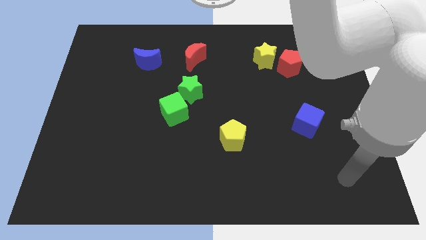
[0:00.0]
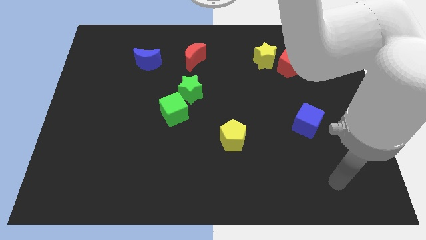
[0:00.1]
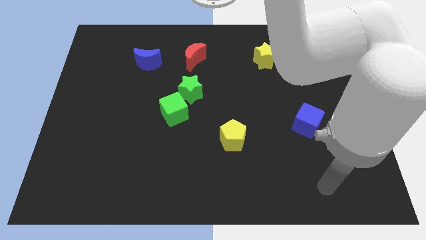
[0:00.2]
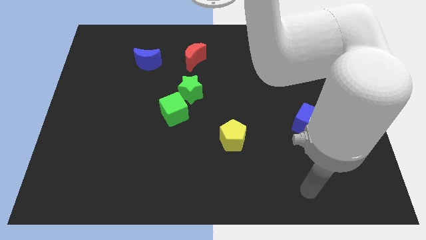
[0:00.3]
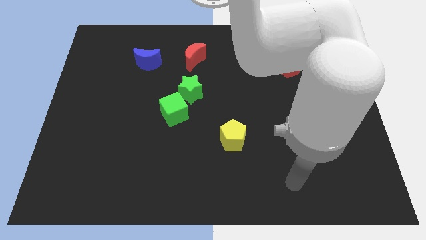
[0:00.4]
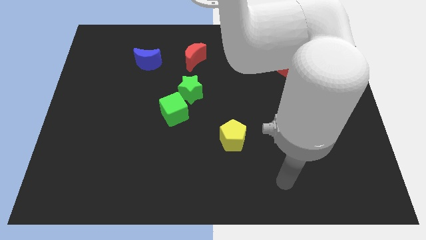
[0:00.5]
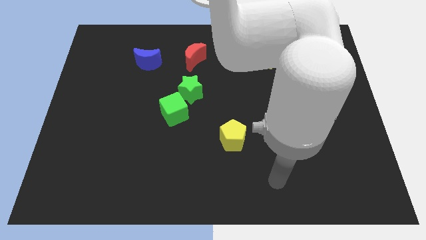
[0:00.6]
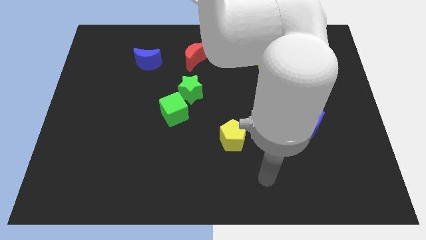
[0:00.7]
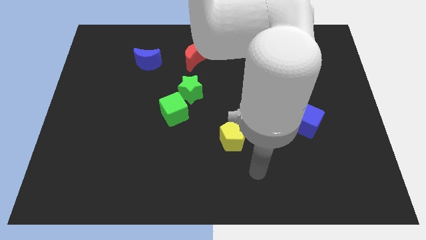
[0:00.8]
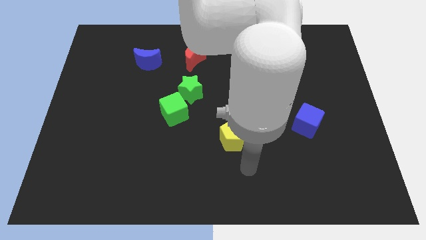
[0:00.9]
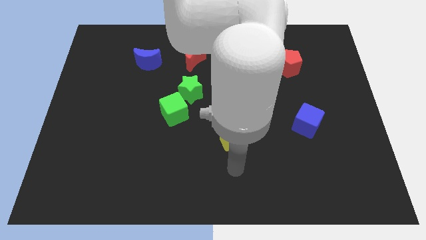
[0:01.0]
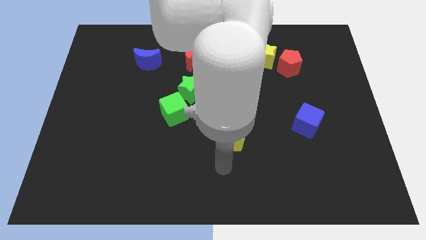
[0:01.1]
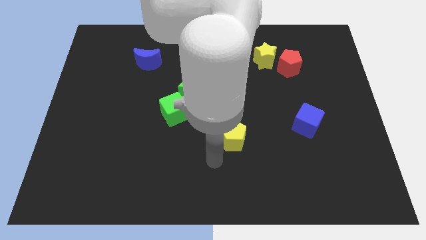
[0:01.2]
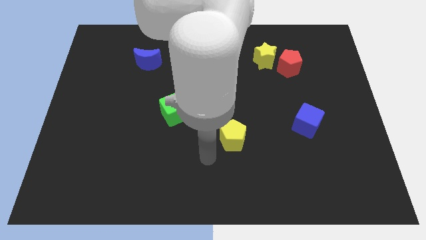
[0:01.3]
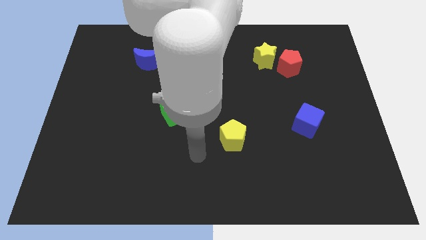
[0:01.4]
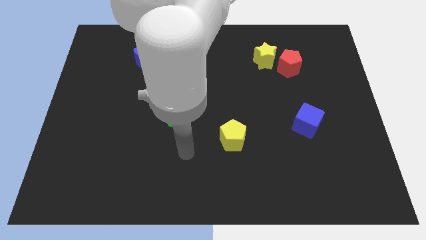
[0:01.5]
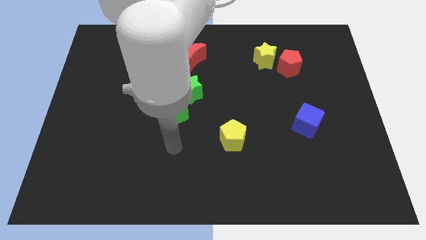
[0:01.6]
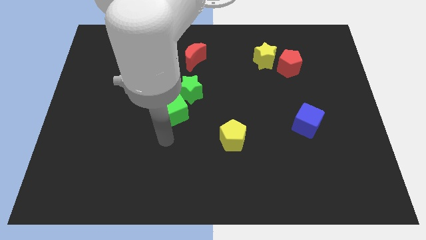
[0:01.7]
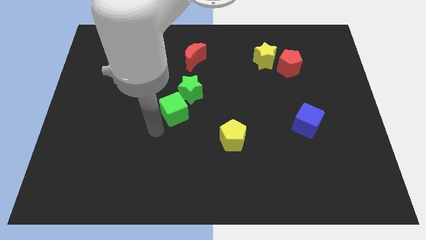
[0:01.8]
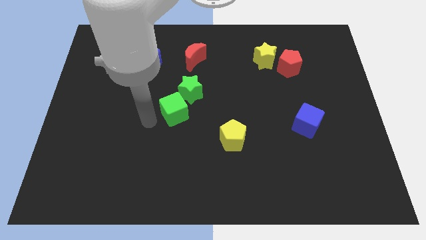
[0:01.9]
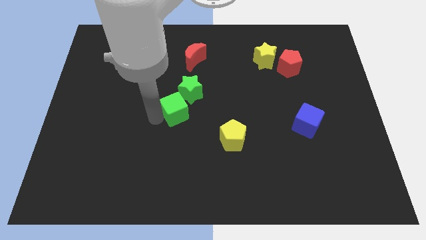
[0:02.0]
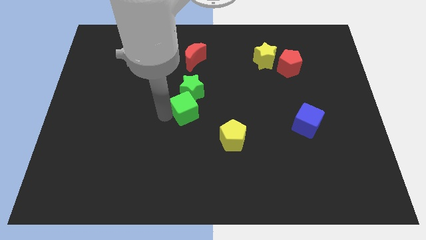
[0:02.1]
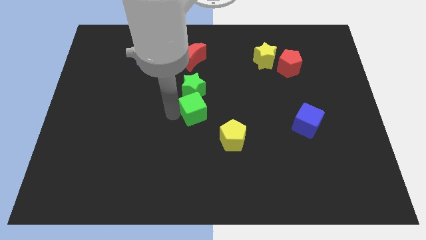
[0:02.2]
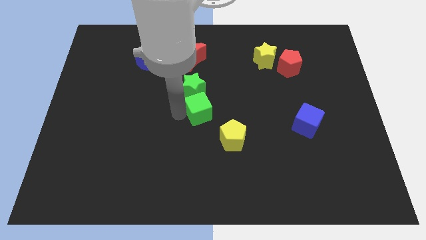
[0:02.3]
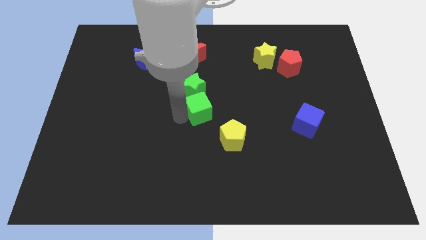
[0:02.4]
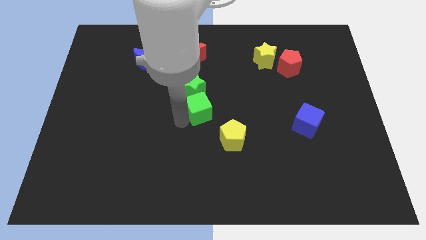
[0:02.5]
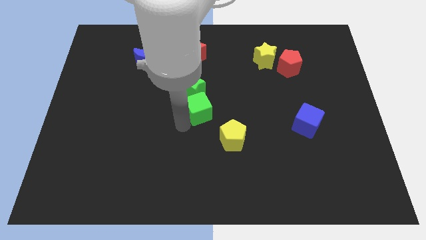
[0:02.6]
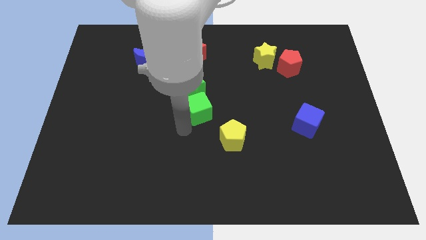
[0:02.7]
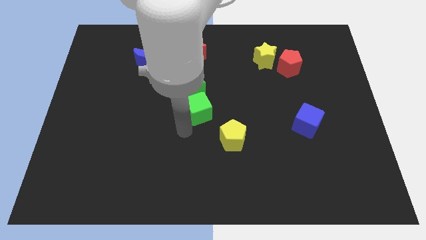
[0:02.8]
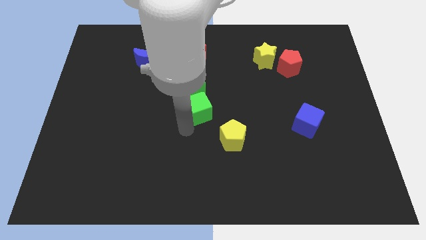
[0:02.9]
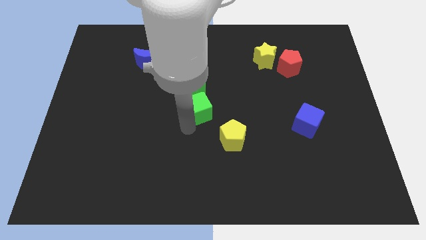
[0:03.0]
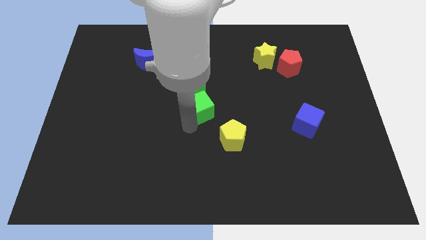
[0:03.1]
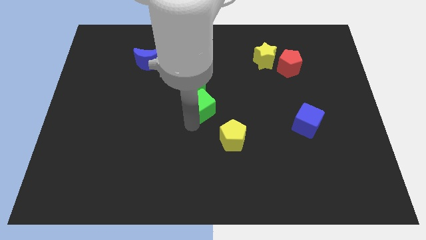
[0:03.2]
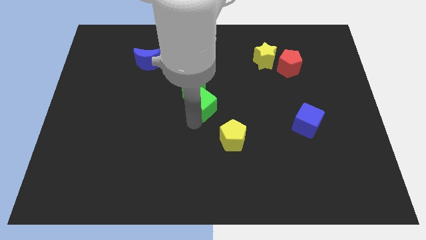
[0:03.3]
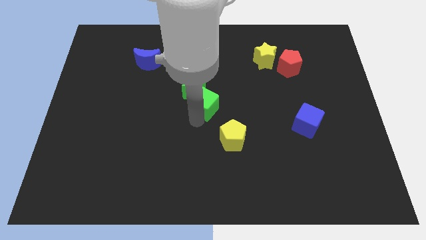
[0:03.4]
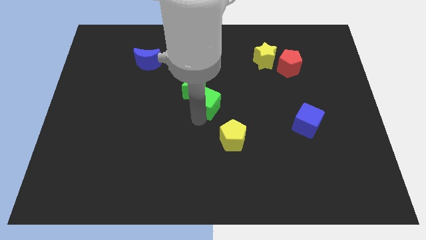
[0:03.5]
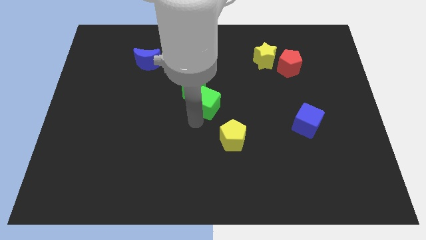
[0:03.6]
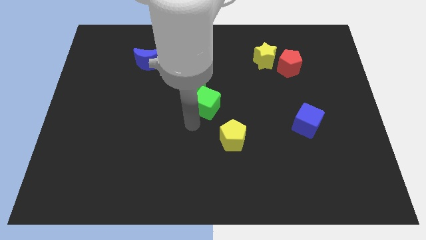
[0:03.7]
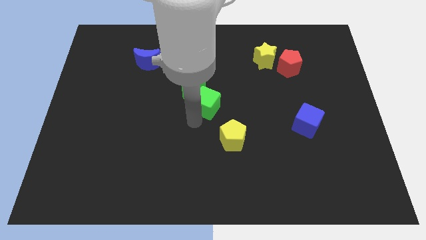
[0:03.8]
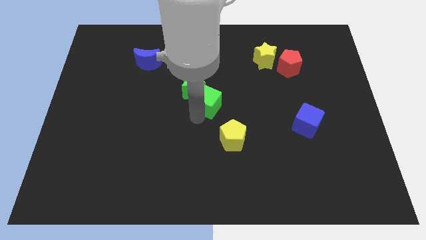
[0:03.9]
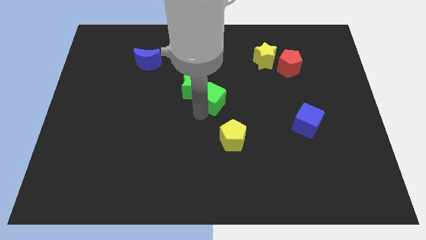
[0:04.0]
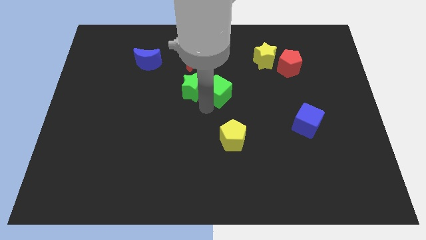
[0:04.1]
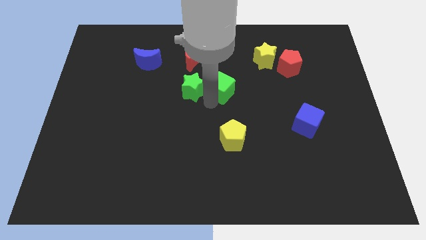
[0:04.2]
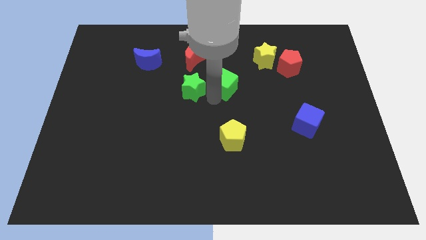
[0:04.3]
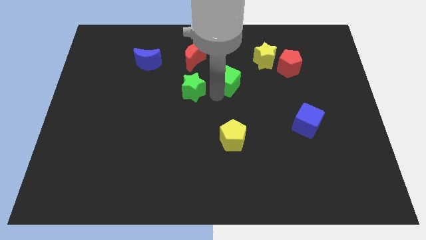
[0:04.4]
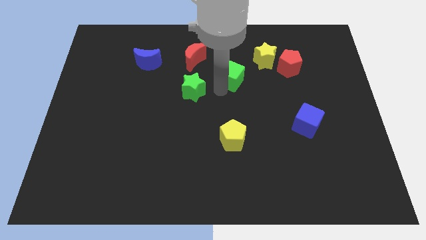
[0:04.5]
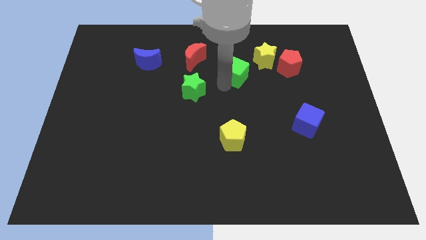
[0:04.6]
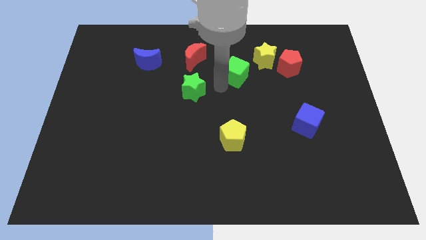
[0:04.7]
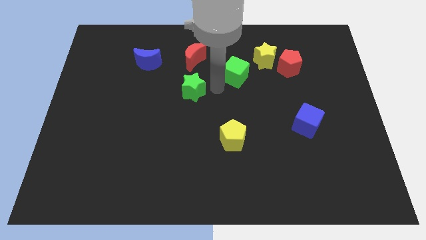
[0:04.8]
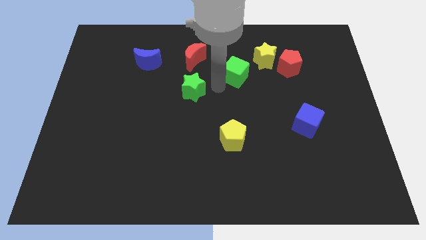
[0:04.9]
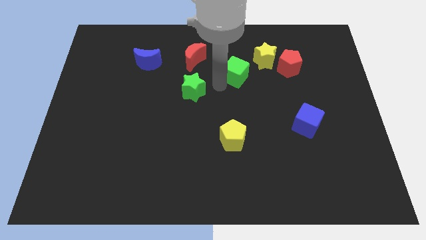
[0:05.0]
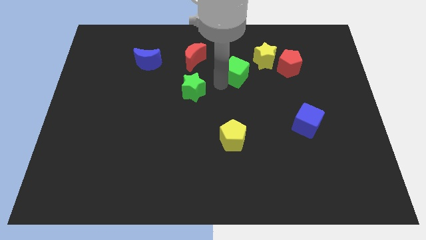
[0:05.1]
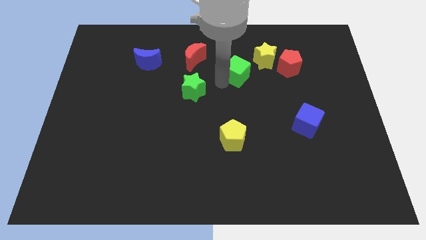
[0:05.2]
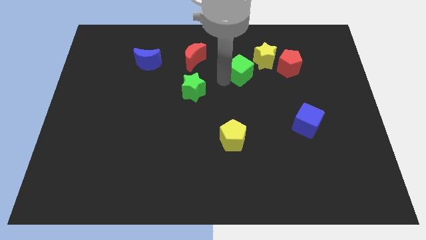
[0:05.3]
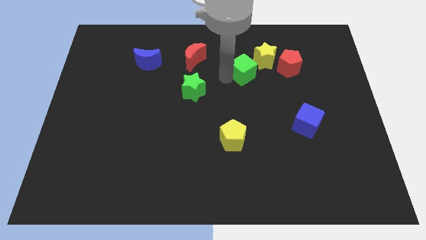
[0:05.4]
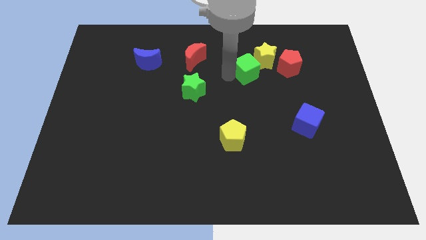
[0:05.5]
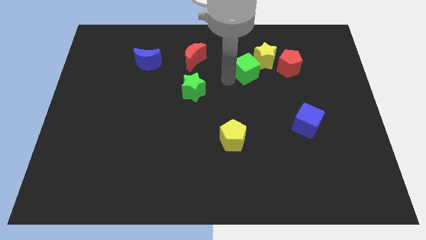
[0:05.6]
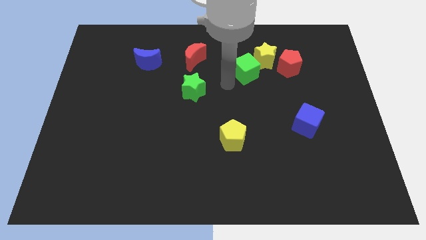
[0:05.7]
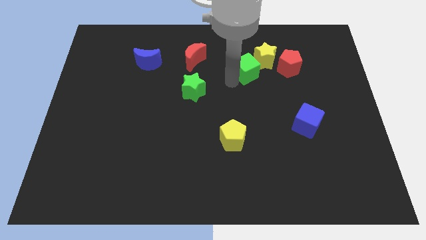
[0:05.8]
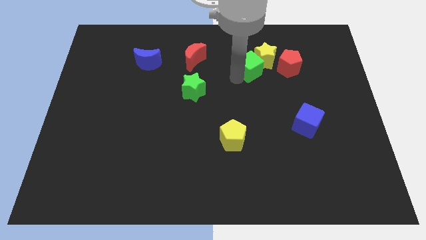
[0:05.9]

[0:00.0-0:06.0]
slide the green cube to the yellow star

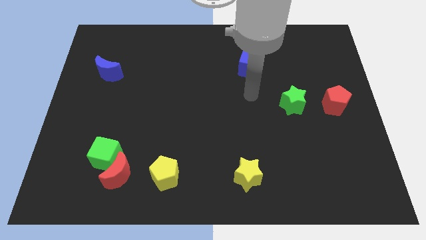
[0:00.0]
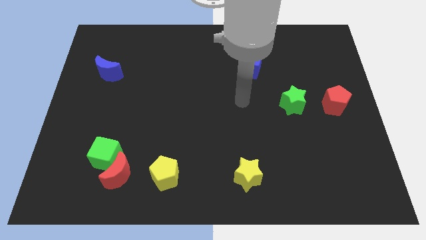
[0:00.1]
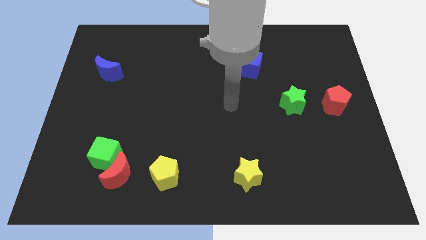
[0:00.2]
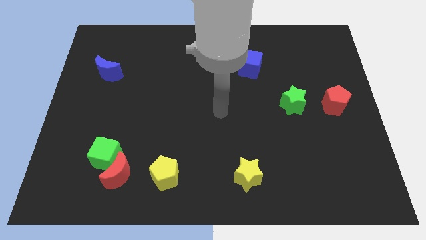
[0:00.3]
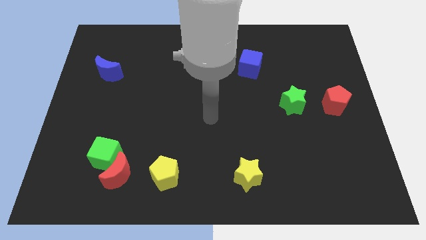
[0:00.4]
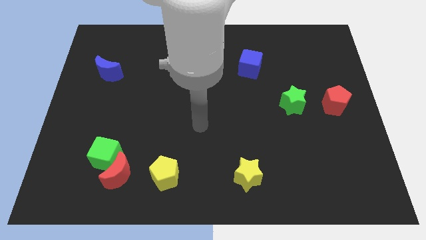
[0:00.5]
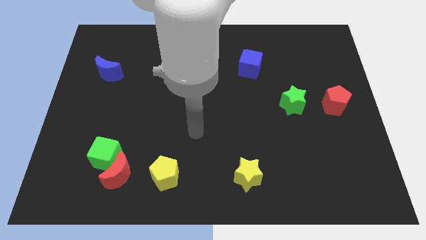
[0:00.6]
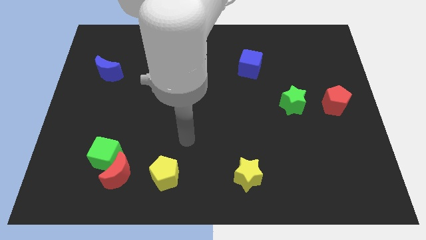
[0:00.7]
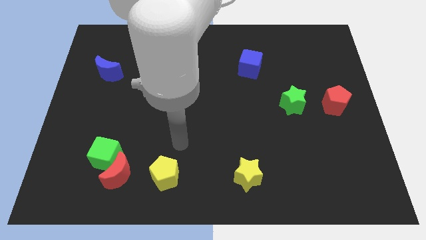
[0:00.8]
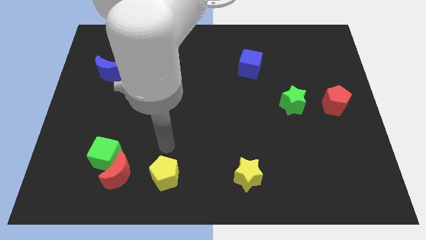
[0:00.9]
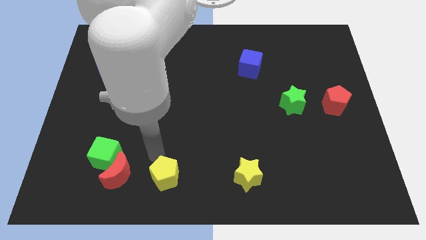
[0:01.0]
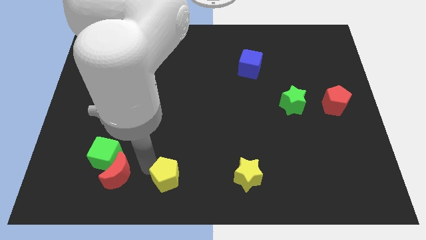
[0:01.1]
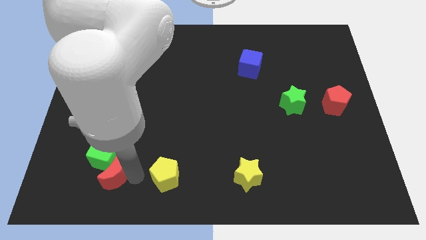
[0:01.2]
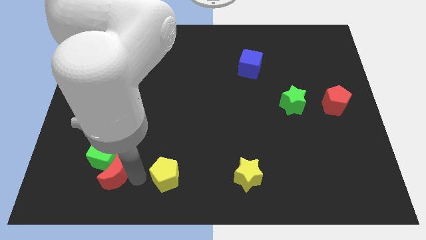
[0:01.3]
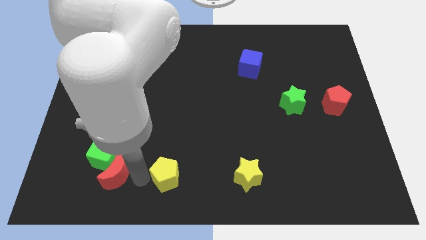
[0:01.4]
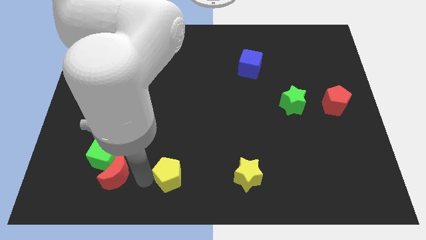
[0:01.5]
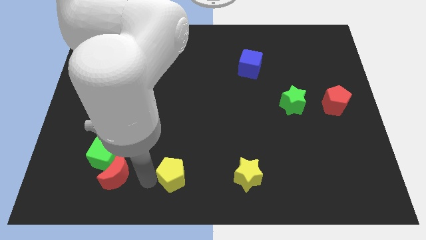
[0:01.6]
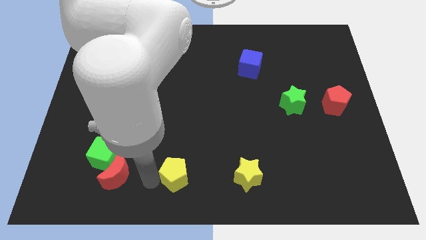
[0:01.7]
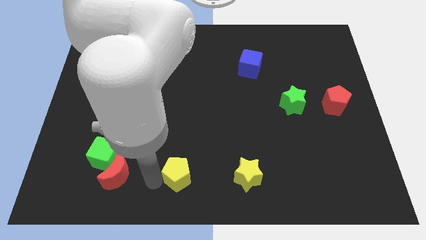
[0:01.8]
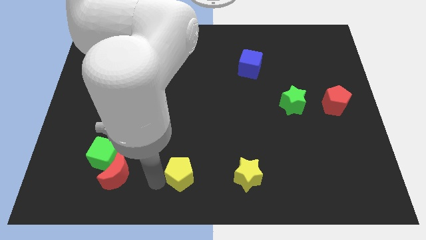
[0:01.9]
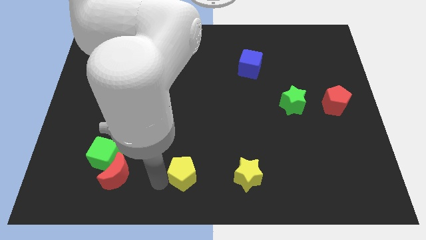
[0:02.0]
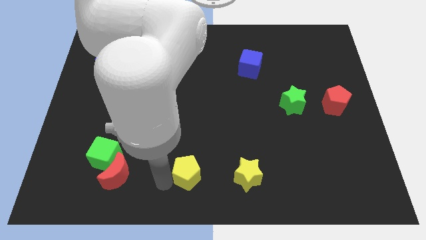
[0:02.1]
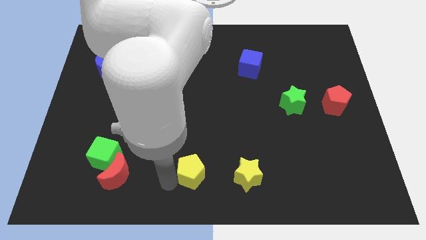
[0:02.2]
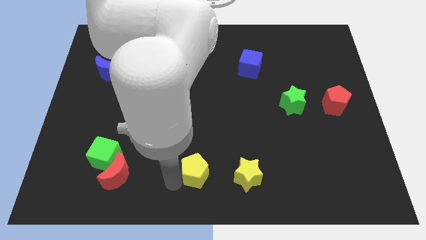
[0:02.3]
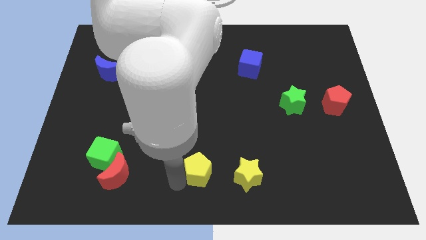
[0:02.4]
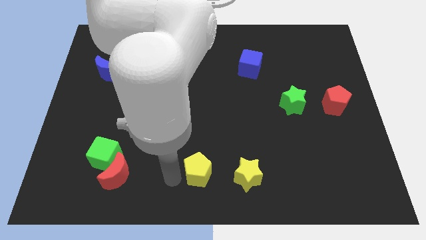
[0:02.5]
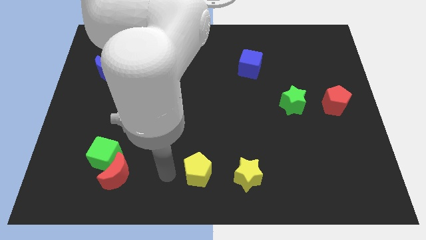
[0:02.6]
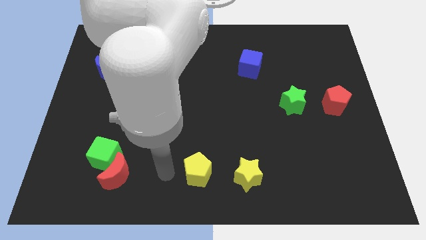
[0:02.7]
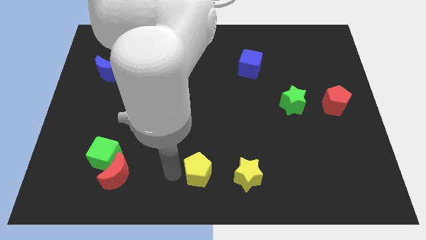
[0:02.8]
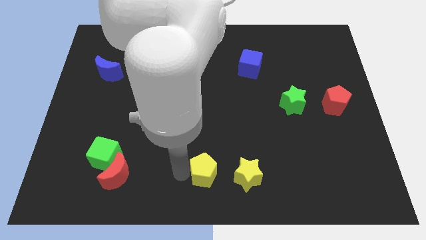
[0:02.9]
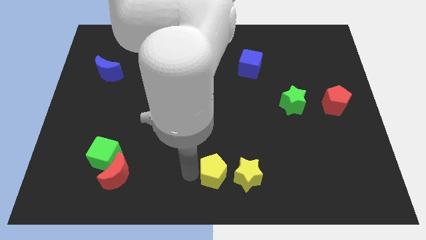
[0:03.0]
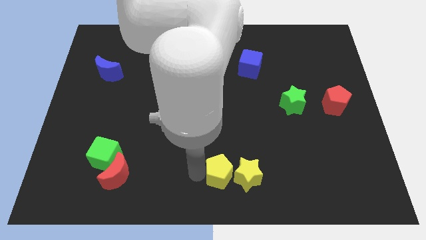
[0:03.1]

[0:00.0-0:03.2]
move the yellow pentagon next to the yellow star
